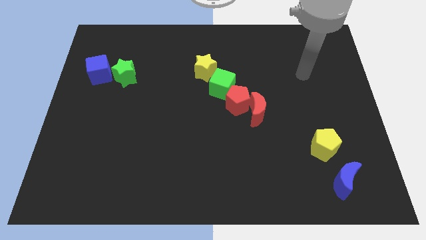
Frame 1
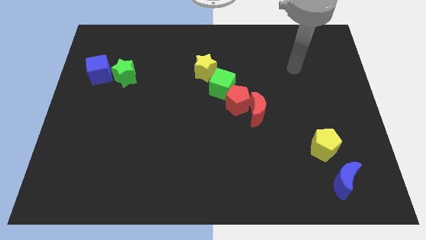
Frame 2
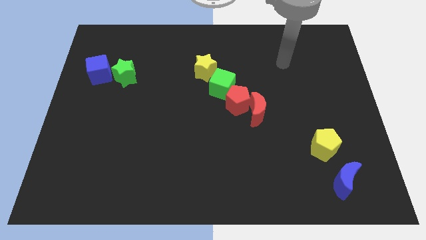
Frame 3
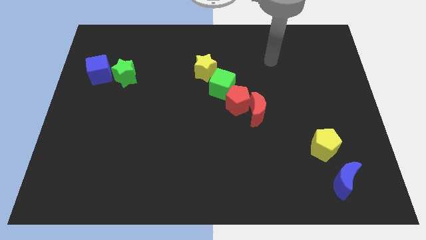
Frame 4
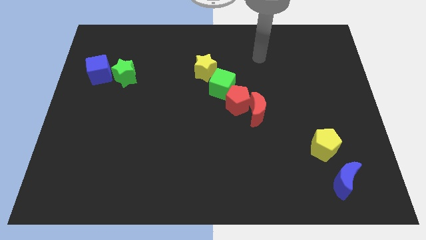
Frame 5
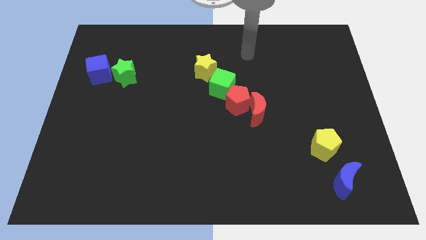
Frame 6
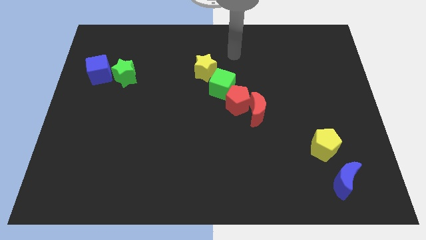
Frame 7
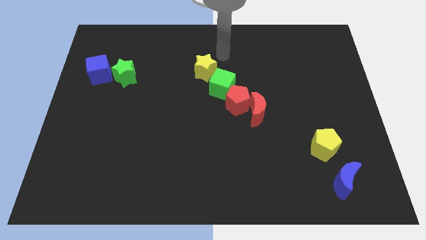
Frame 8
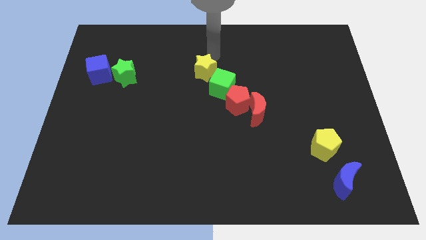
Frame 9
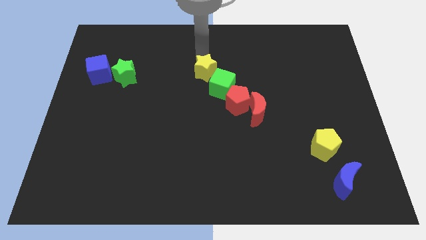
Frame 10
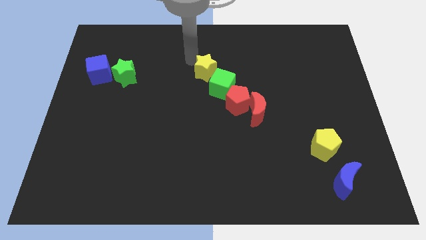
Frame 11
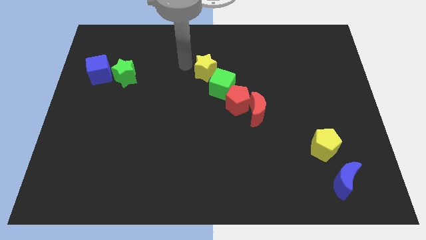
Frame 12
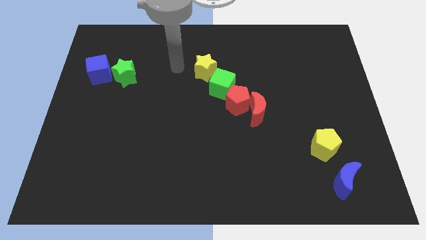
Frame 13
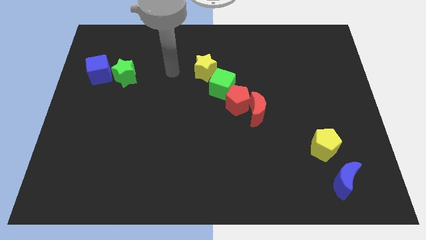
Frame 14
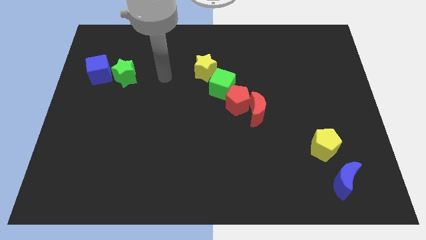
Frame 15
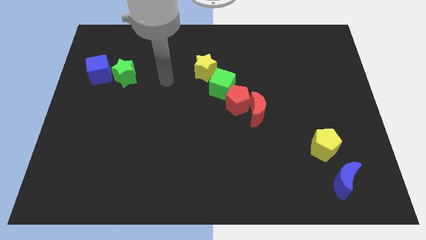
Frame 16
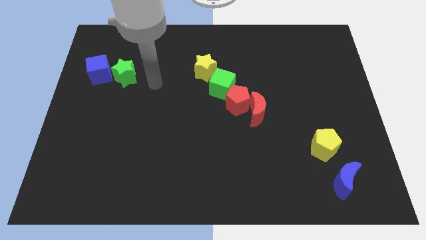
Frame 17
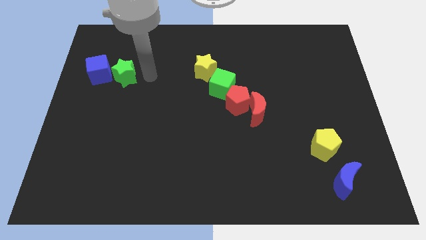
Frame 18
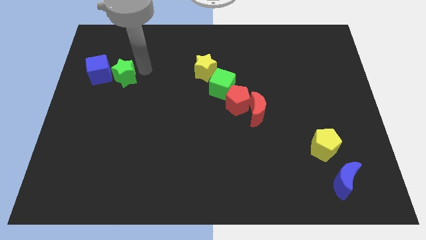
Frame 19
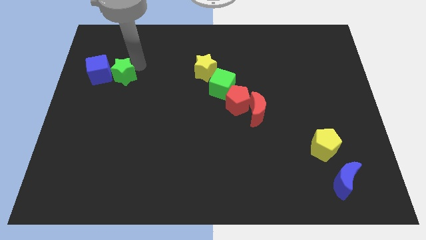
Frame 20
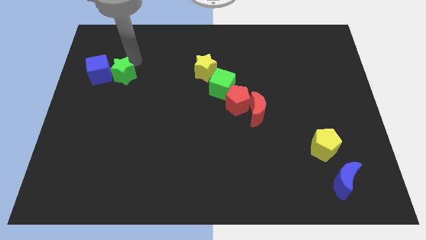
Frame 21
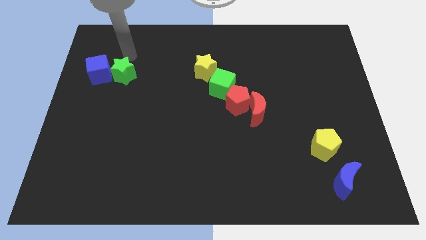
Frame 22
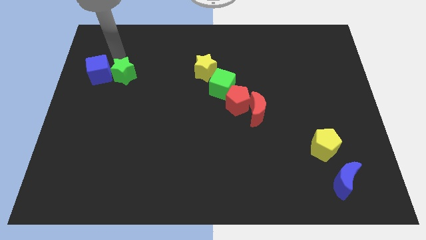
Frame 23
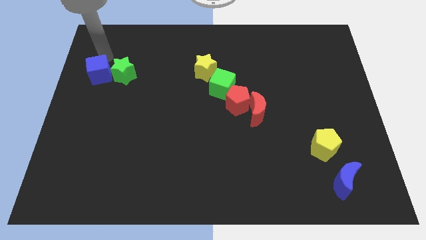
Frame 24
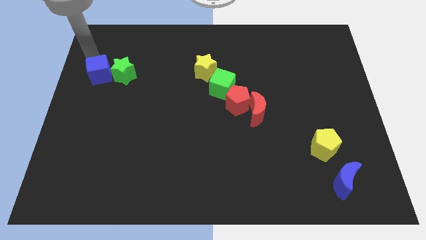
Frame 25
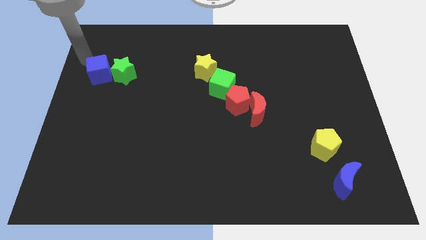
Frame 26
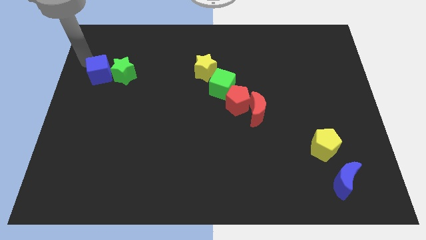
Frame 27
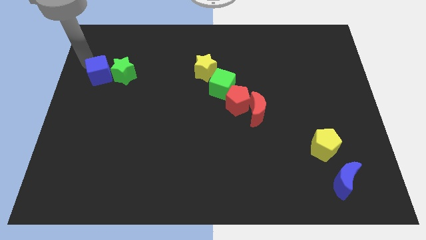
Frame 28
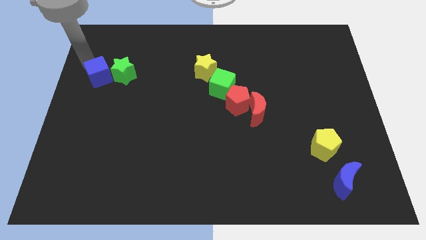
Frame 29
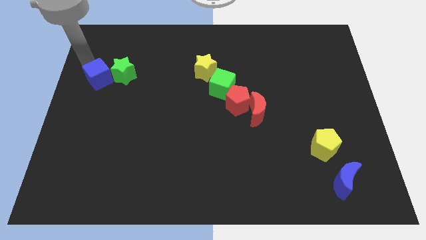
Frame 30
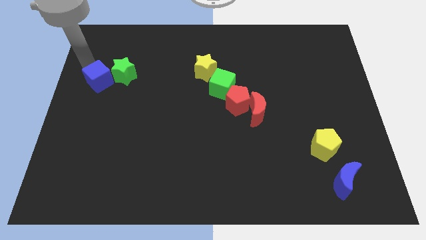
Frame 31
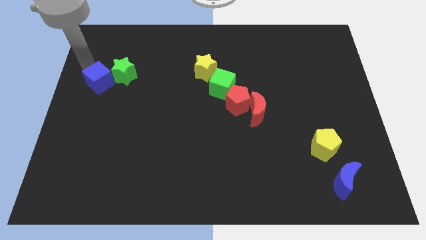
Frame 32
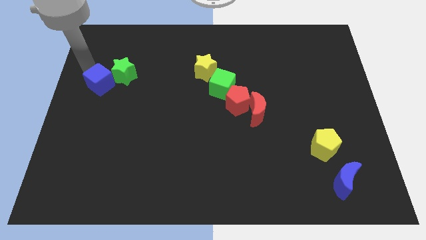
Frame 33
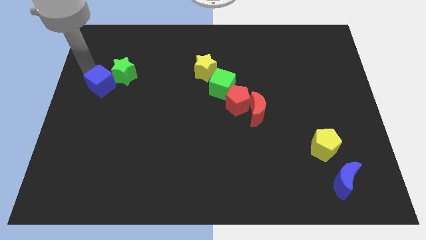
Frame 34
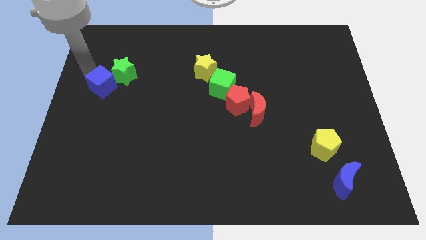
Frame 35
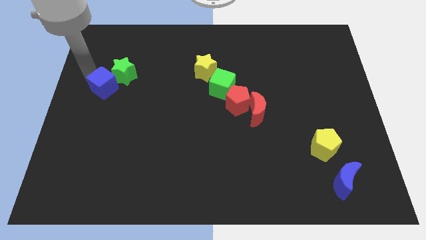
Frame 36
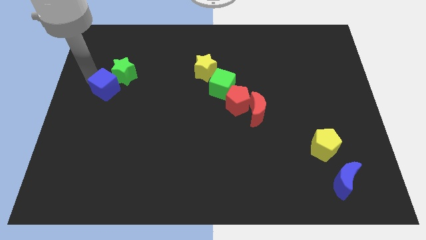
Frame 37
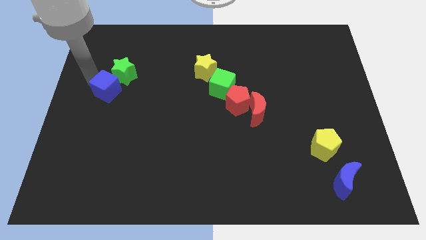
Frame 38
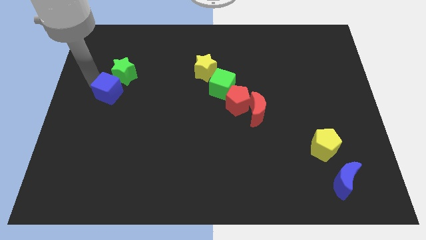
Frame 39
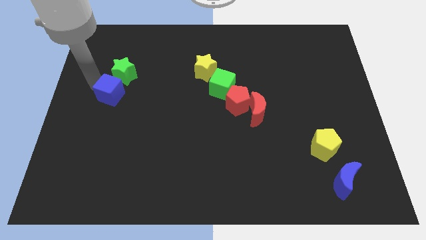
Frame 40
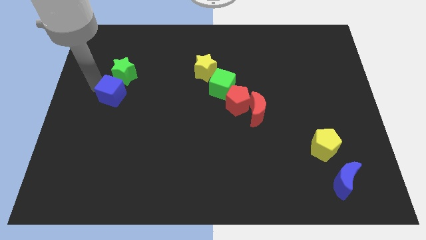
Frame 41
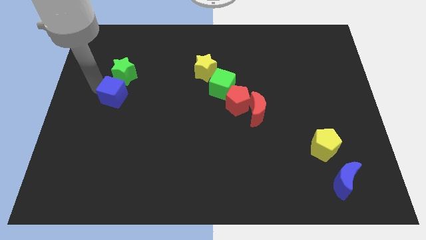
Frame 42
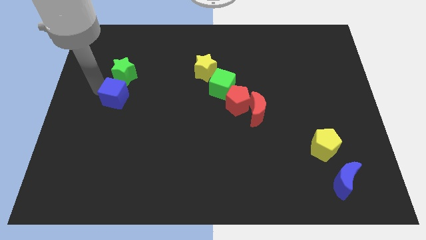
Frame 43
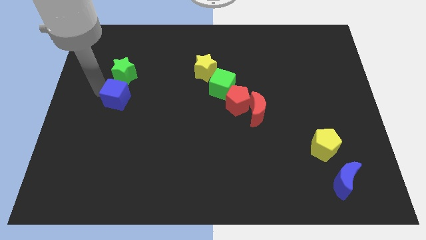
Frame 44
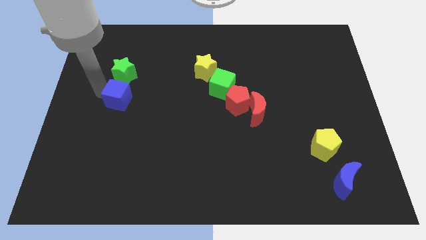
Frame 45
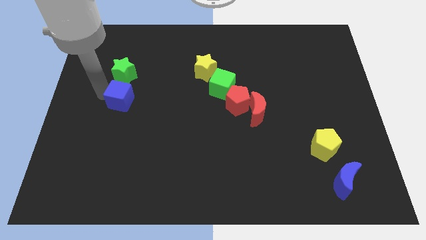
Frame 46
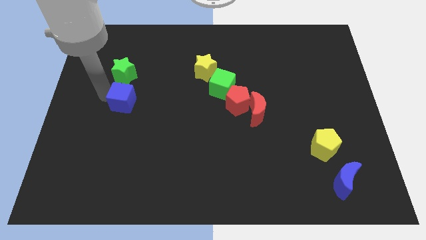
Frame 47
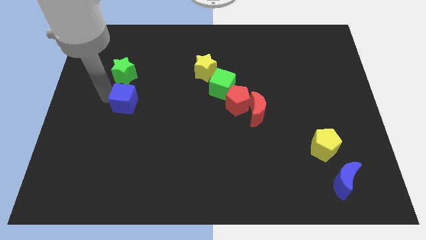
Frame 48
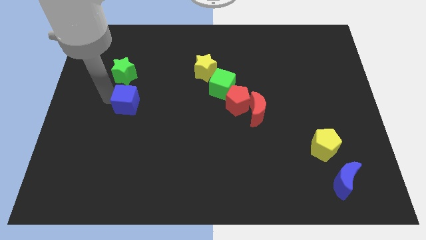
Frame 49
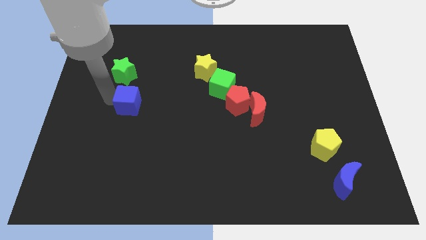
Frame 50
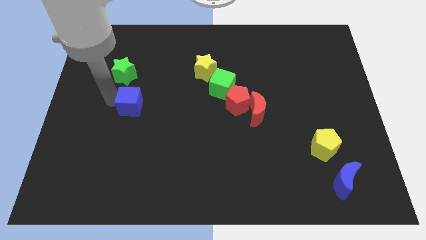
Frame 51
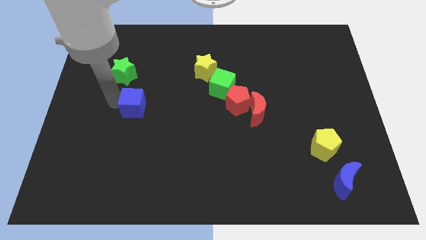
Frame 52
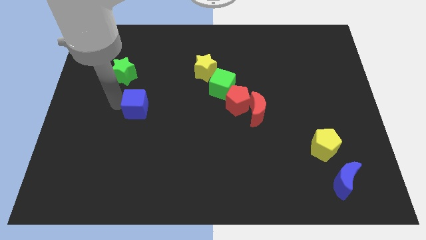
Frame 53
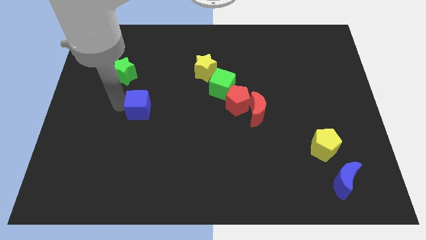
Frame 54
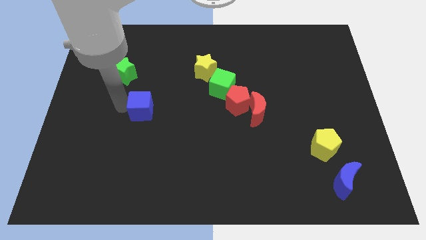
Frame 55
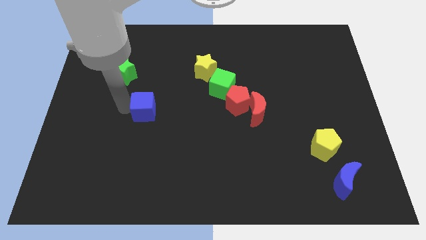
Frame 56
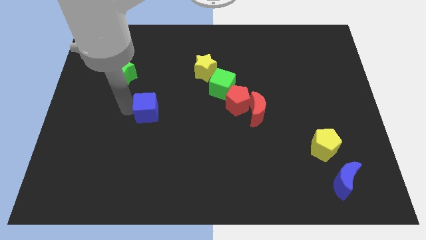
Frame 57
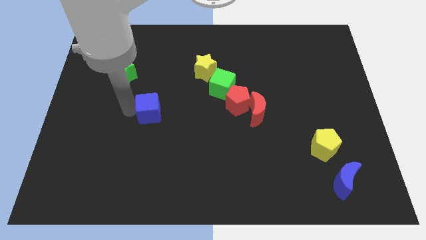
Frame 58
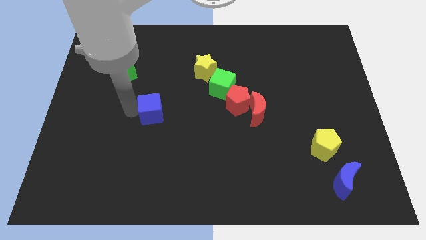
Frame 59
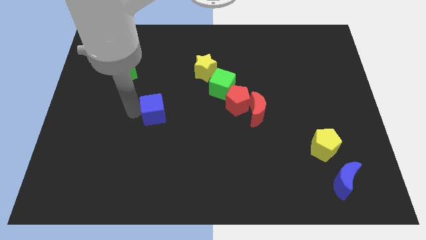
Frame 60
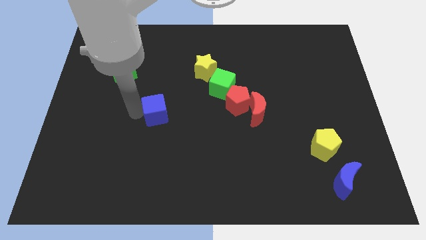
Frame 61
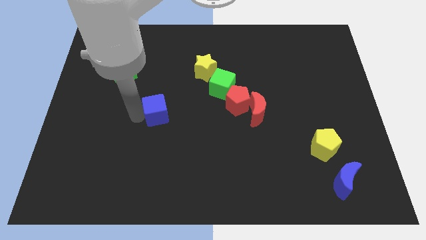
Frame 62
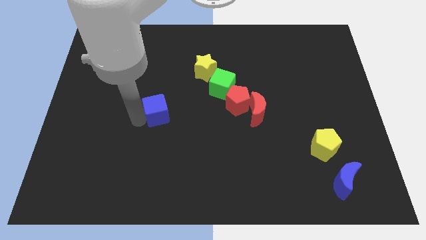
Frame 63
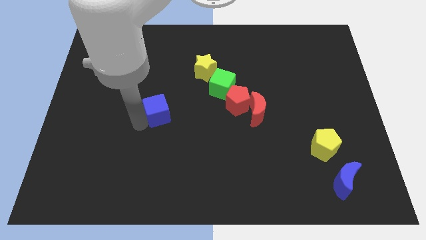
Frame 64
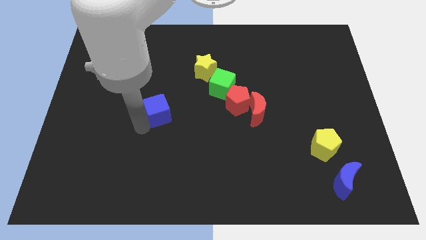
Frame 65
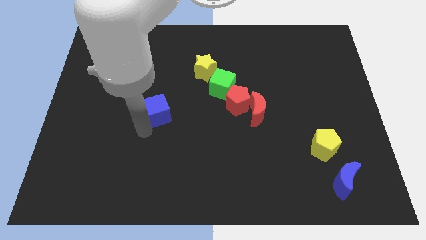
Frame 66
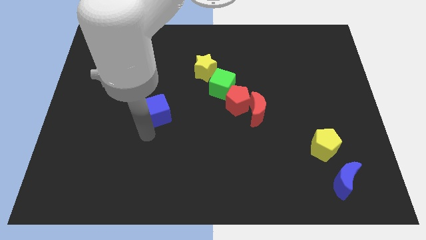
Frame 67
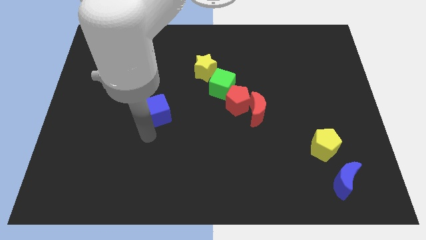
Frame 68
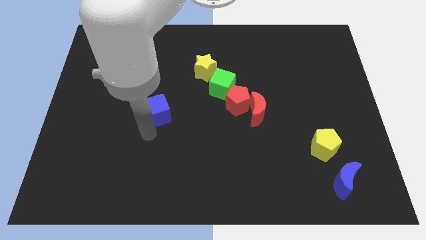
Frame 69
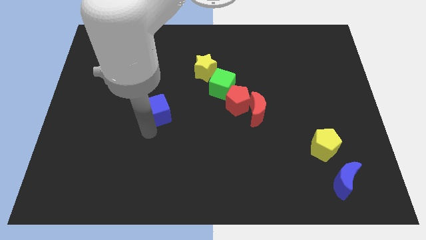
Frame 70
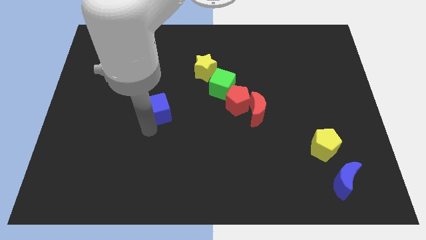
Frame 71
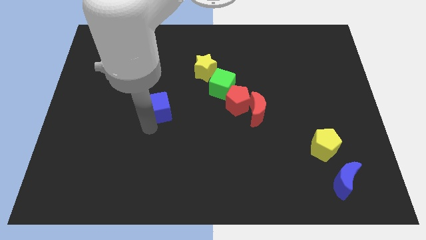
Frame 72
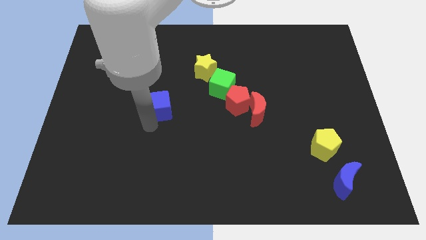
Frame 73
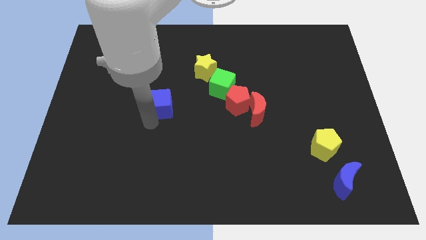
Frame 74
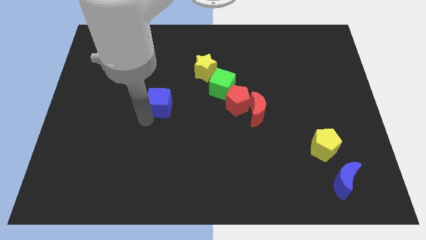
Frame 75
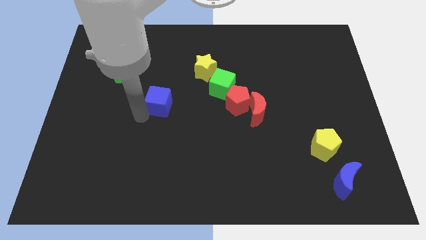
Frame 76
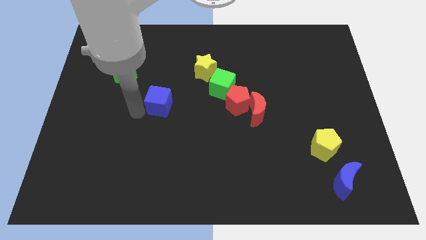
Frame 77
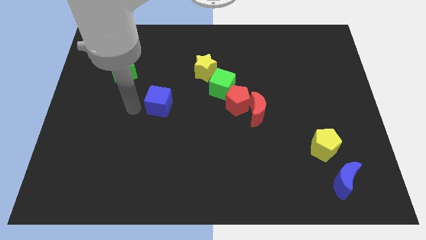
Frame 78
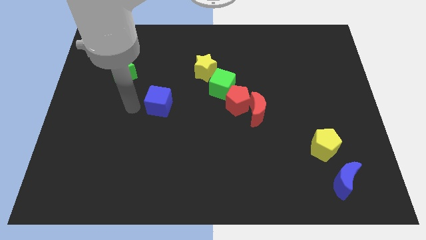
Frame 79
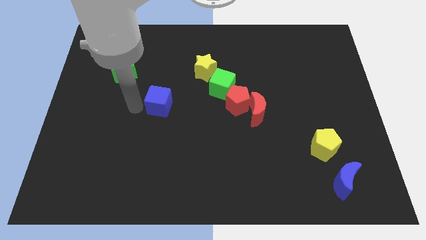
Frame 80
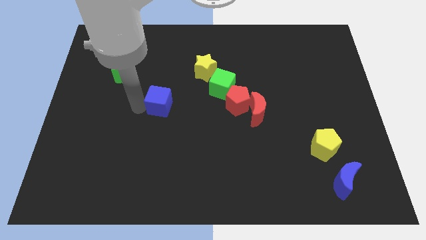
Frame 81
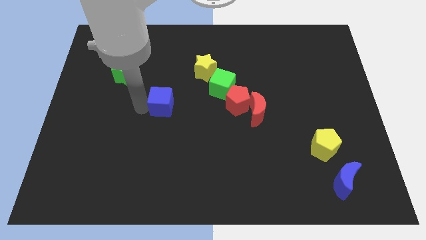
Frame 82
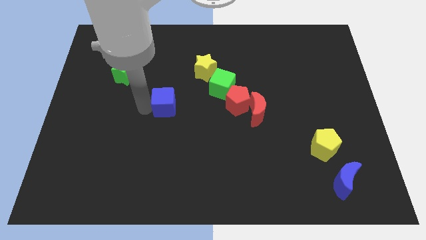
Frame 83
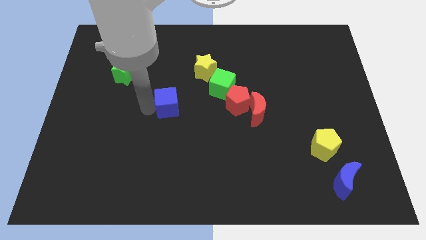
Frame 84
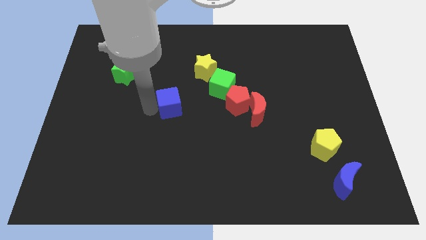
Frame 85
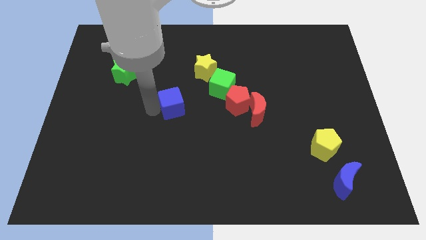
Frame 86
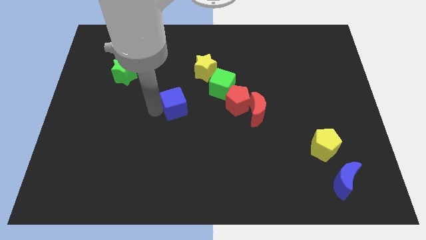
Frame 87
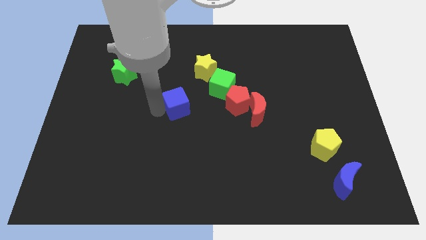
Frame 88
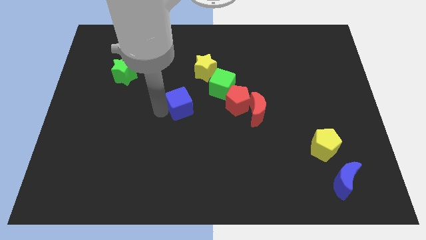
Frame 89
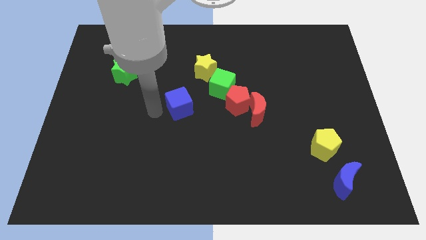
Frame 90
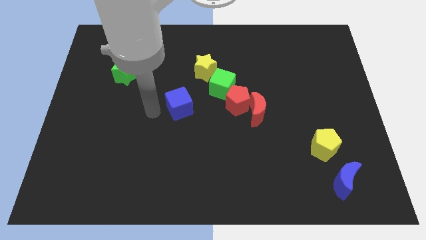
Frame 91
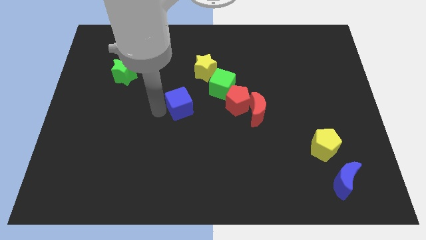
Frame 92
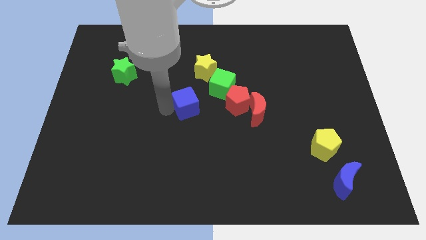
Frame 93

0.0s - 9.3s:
slide the blue cube below the yellow star
